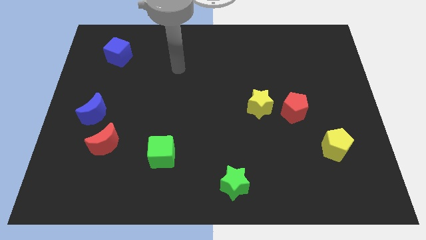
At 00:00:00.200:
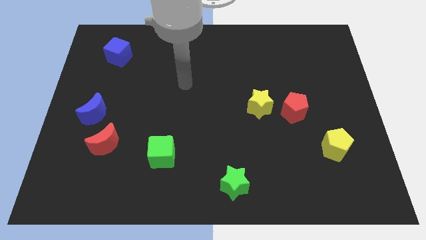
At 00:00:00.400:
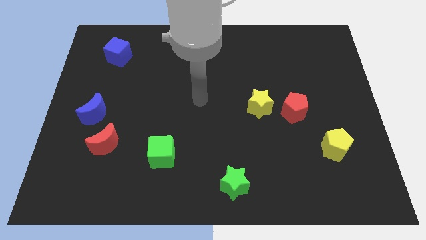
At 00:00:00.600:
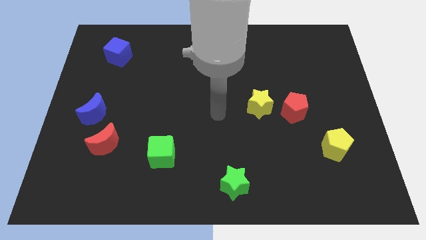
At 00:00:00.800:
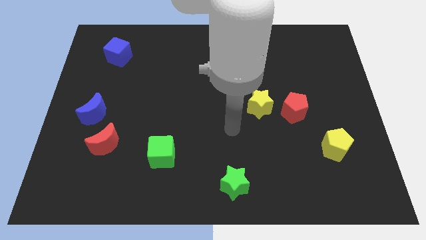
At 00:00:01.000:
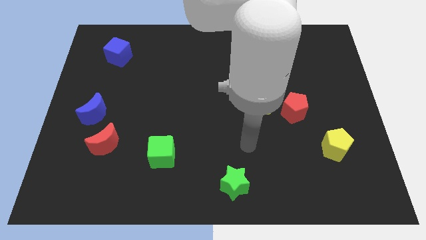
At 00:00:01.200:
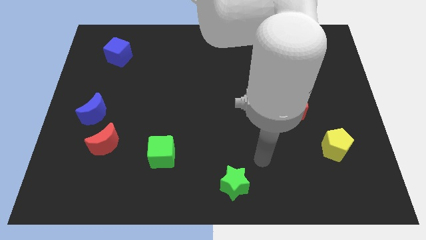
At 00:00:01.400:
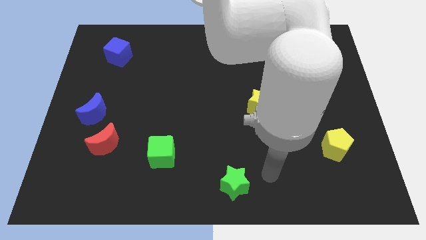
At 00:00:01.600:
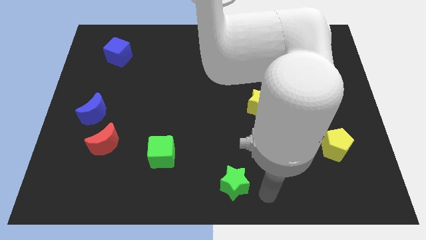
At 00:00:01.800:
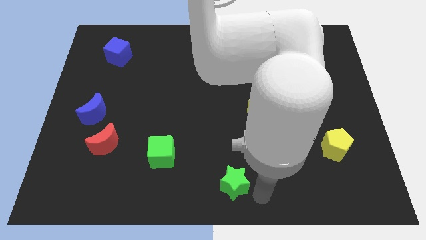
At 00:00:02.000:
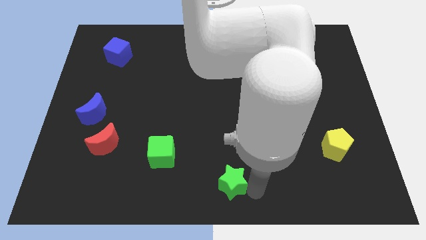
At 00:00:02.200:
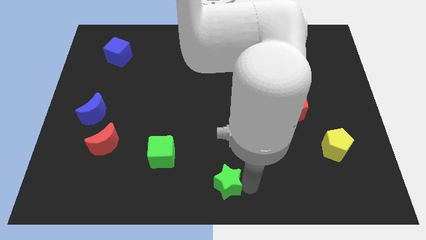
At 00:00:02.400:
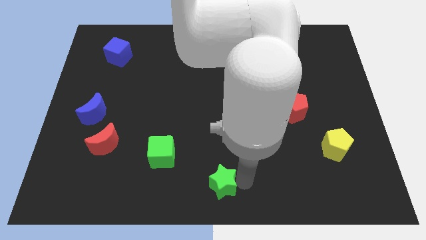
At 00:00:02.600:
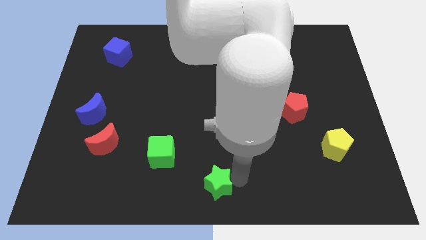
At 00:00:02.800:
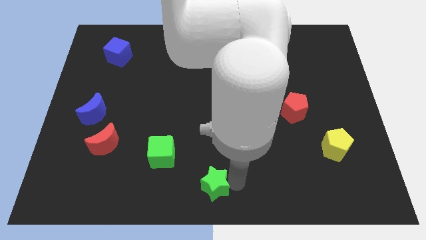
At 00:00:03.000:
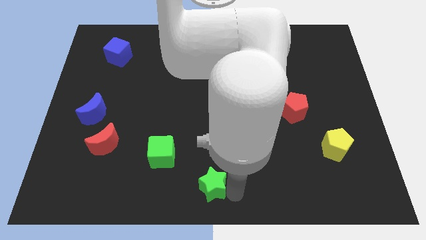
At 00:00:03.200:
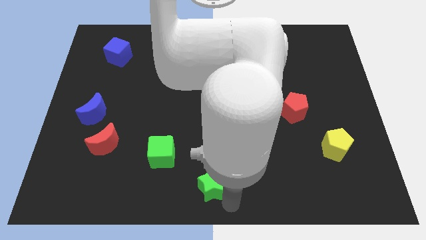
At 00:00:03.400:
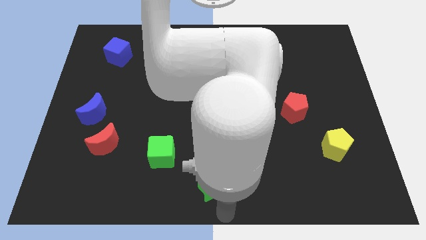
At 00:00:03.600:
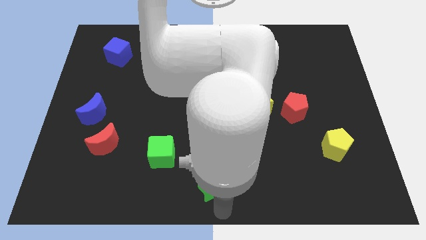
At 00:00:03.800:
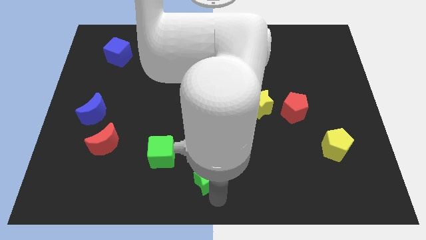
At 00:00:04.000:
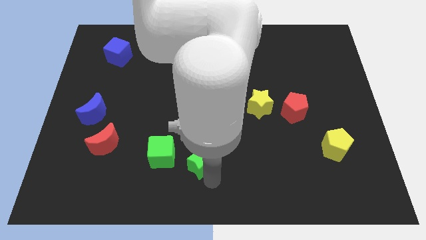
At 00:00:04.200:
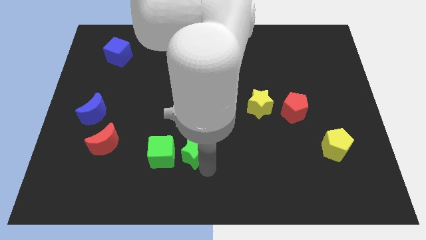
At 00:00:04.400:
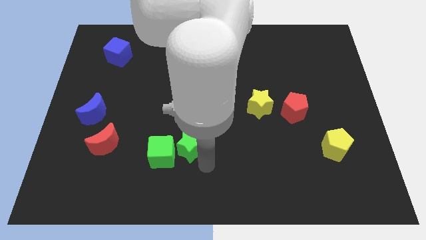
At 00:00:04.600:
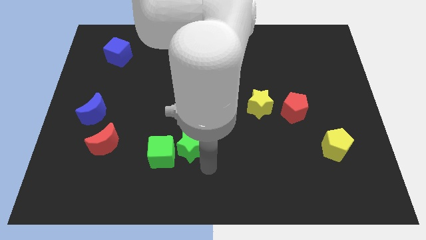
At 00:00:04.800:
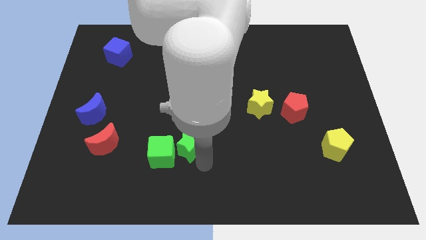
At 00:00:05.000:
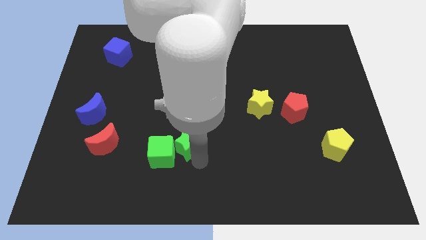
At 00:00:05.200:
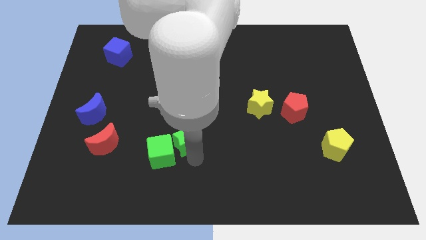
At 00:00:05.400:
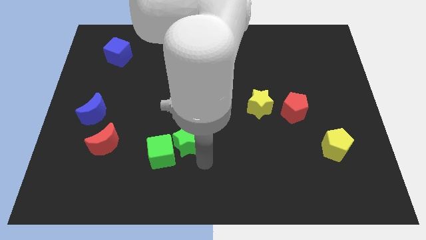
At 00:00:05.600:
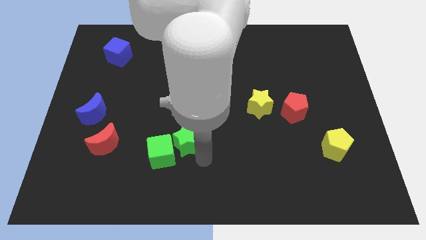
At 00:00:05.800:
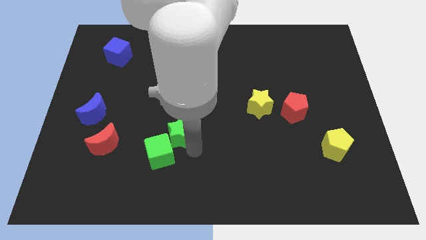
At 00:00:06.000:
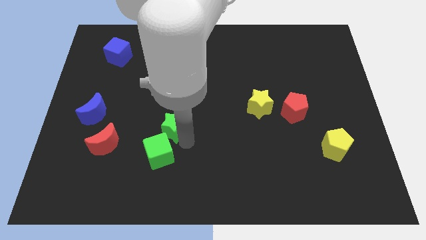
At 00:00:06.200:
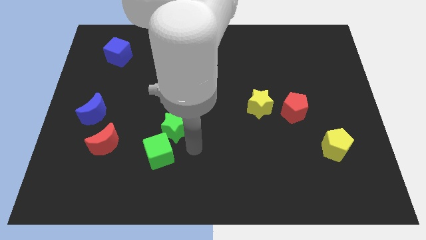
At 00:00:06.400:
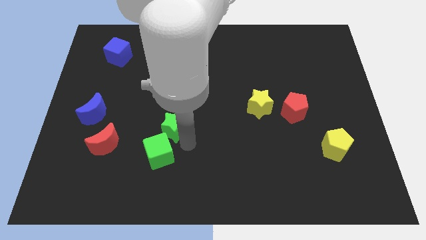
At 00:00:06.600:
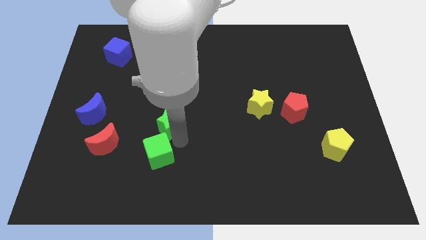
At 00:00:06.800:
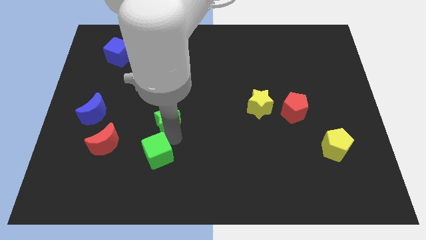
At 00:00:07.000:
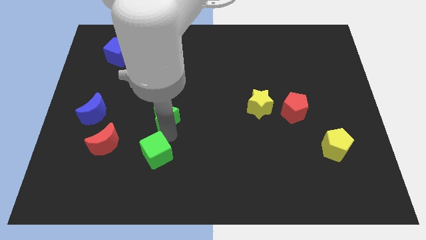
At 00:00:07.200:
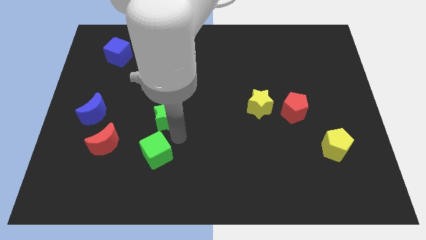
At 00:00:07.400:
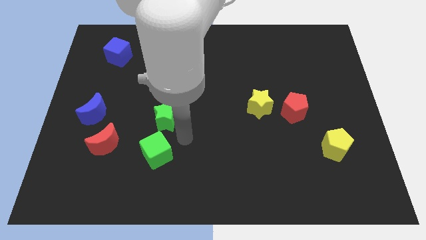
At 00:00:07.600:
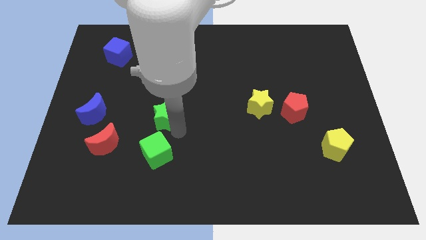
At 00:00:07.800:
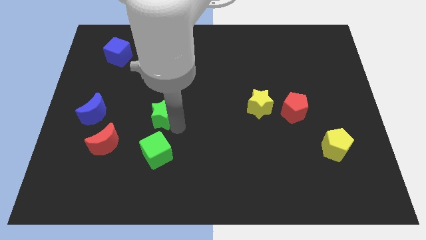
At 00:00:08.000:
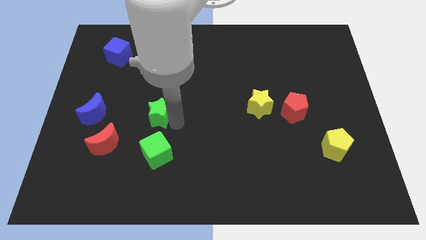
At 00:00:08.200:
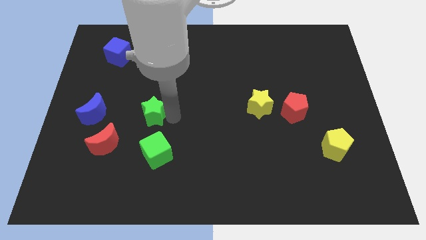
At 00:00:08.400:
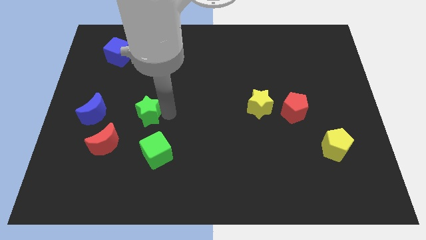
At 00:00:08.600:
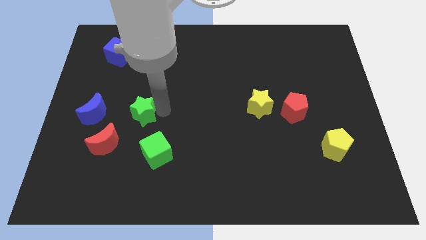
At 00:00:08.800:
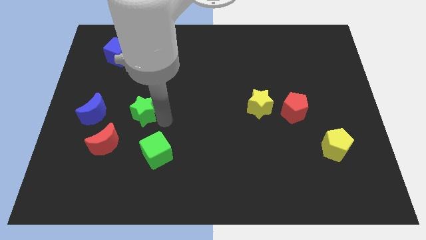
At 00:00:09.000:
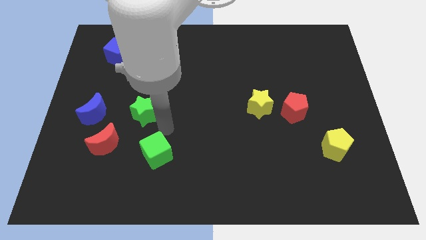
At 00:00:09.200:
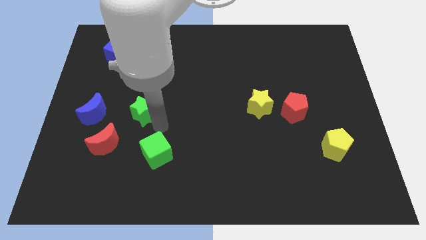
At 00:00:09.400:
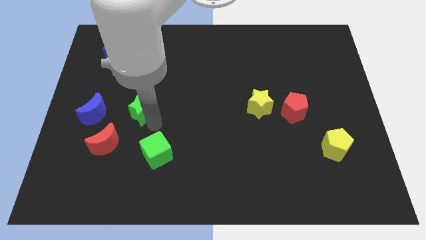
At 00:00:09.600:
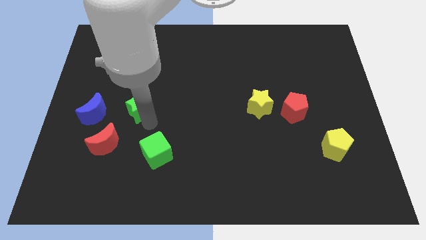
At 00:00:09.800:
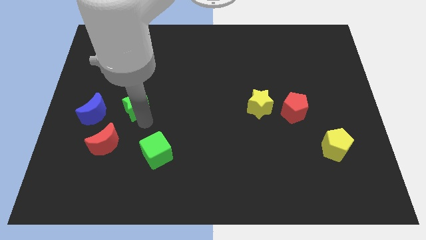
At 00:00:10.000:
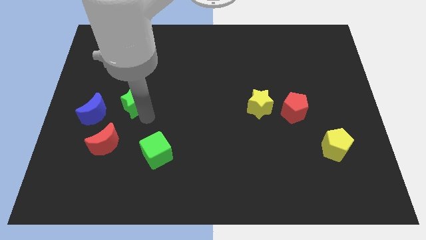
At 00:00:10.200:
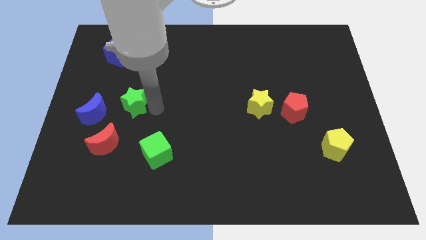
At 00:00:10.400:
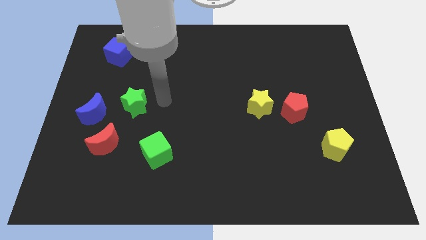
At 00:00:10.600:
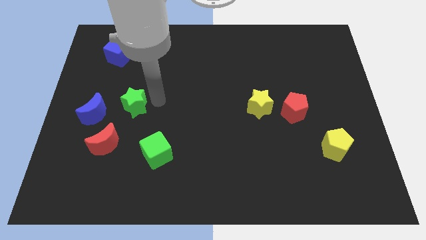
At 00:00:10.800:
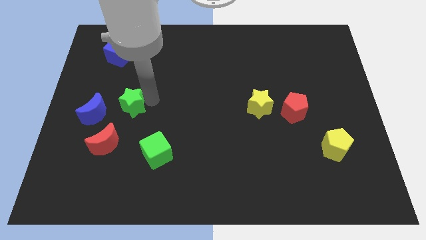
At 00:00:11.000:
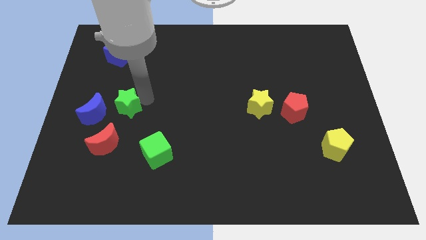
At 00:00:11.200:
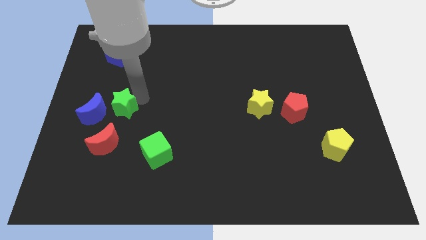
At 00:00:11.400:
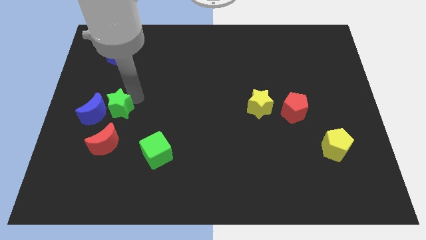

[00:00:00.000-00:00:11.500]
slide the green star close to the blue moon
